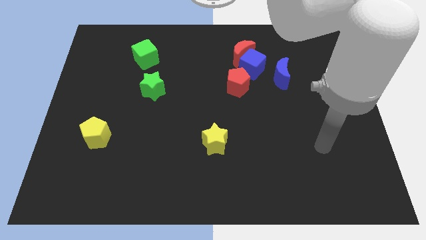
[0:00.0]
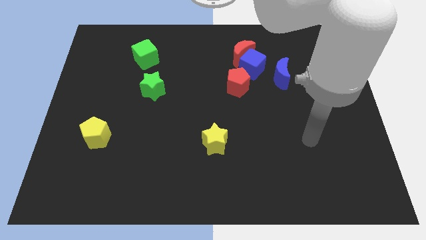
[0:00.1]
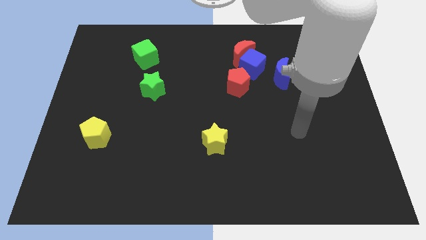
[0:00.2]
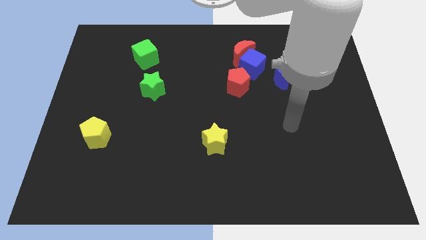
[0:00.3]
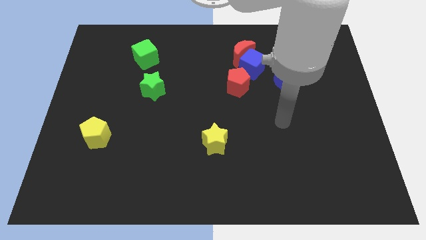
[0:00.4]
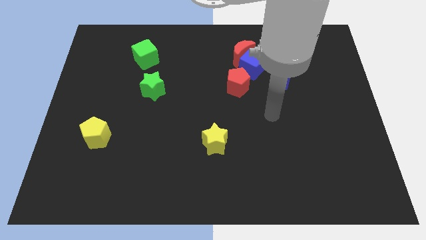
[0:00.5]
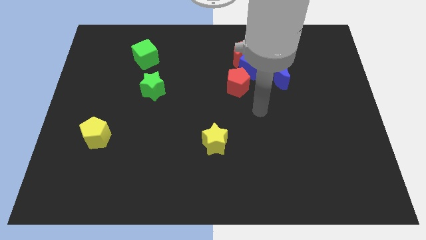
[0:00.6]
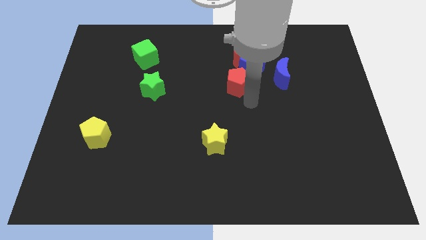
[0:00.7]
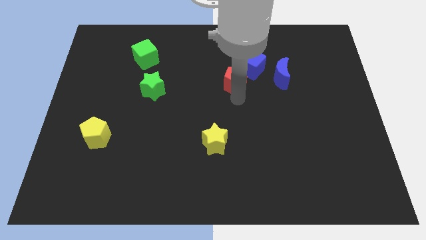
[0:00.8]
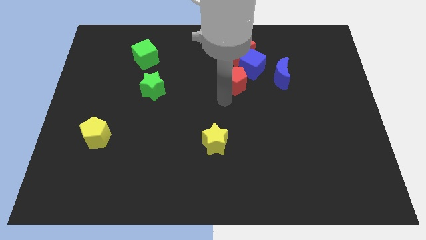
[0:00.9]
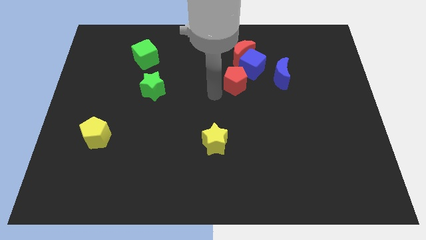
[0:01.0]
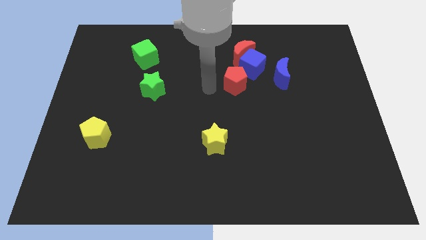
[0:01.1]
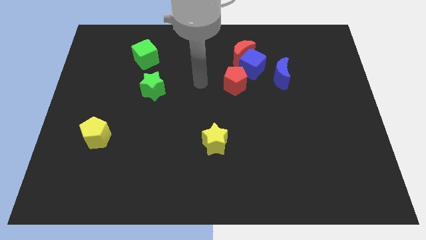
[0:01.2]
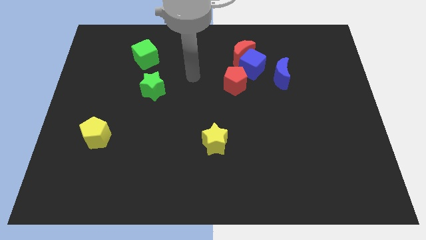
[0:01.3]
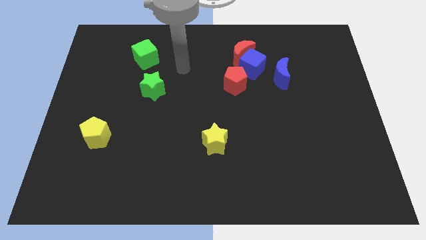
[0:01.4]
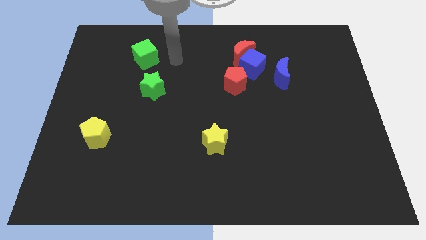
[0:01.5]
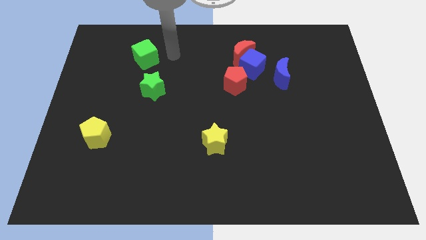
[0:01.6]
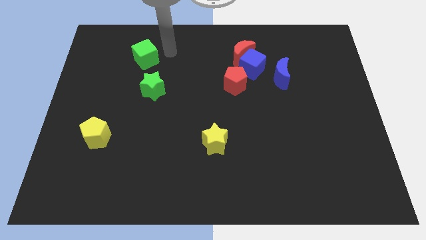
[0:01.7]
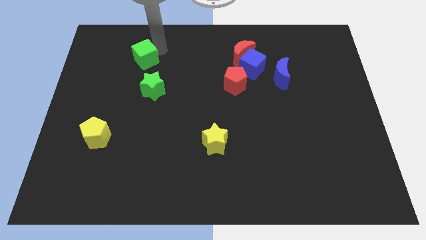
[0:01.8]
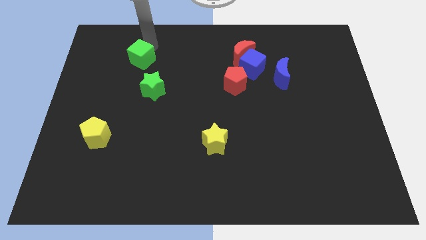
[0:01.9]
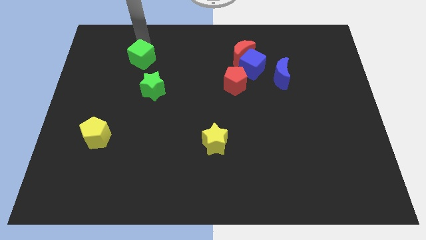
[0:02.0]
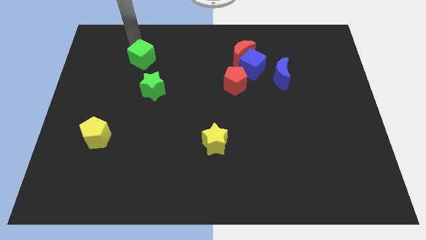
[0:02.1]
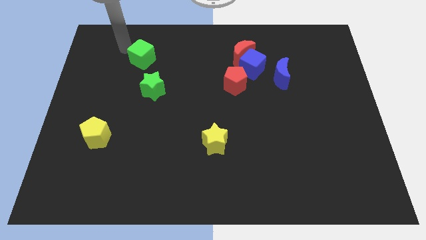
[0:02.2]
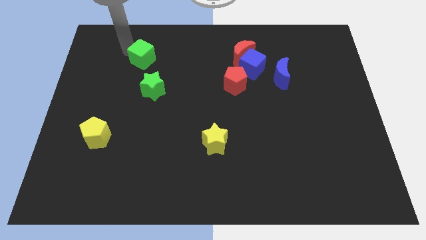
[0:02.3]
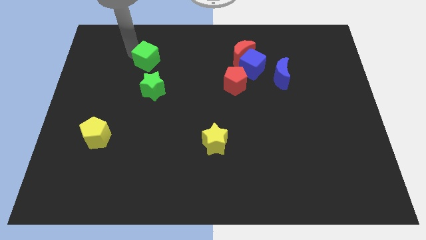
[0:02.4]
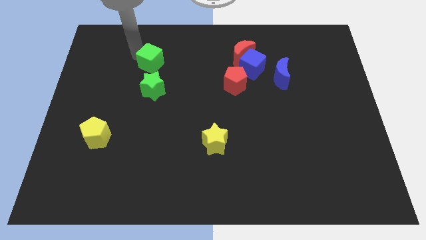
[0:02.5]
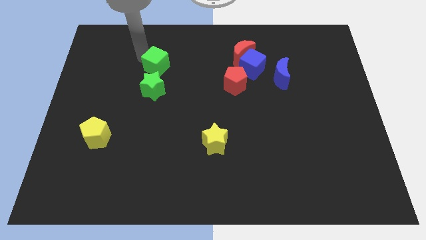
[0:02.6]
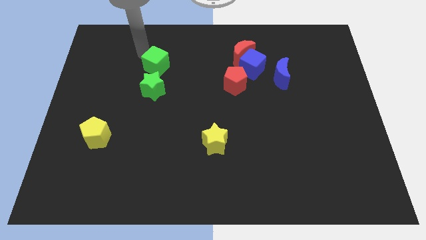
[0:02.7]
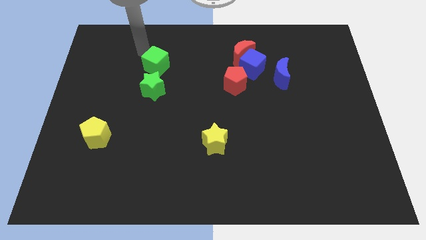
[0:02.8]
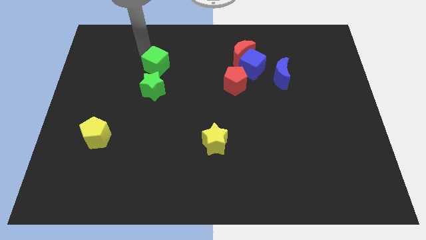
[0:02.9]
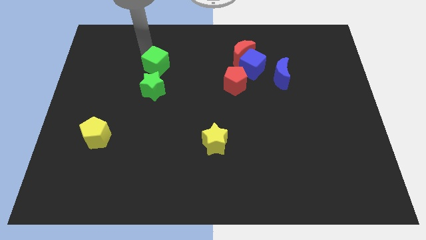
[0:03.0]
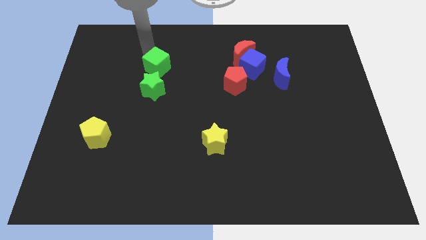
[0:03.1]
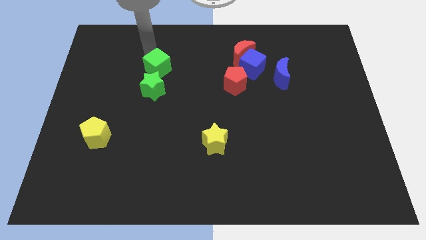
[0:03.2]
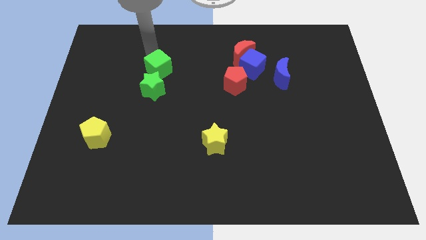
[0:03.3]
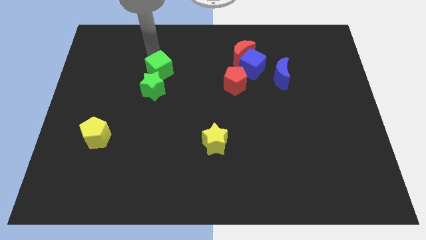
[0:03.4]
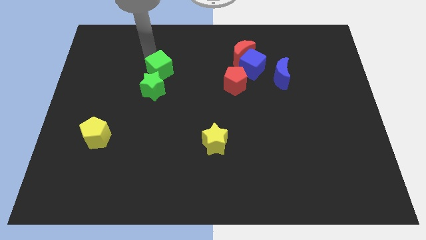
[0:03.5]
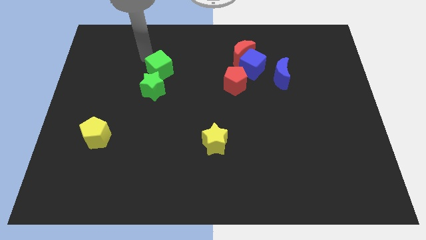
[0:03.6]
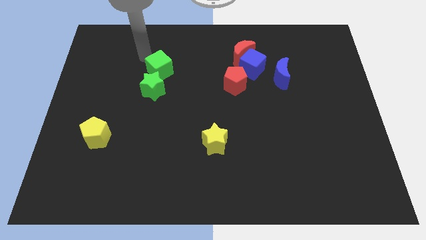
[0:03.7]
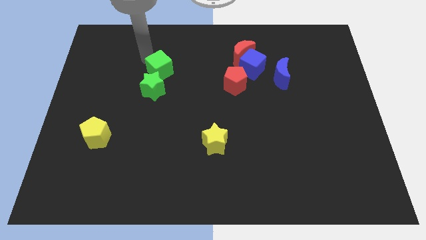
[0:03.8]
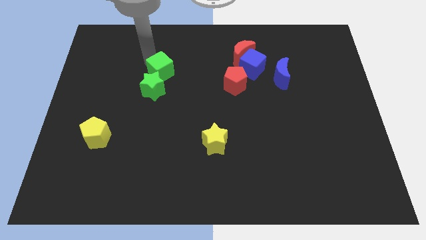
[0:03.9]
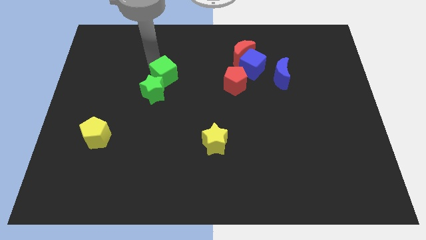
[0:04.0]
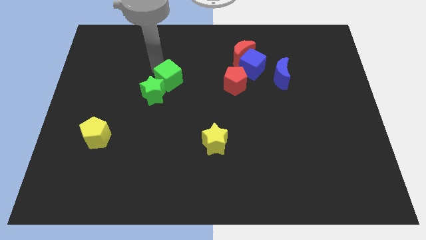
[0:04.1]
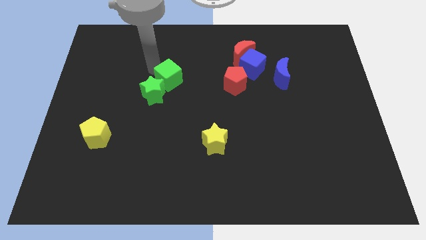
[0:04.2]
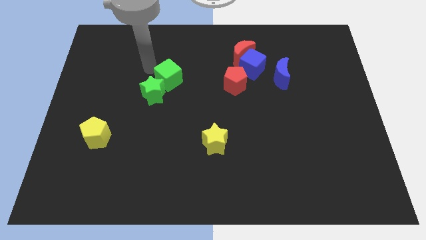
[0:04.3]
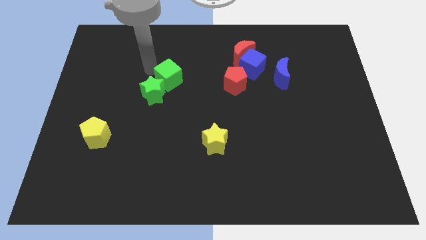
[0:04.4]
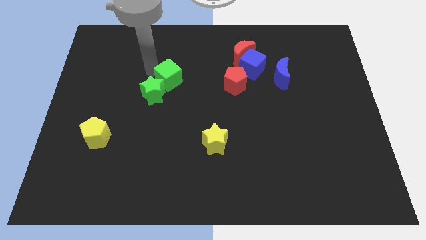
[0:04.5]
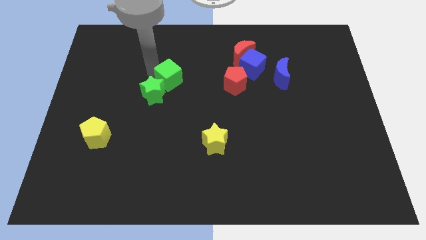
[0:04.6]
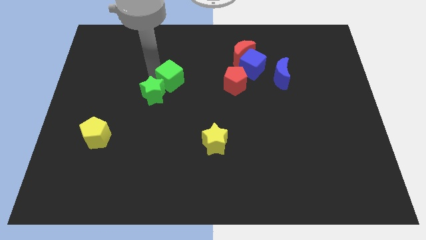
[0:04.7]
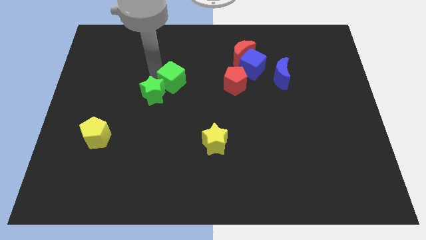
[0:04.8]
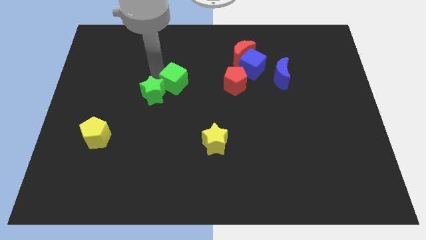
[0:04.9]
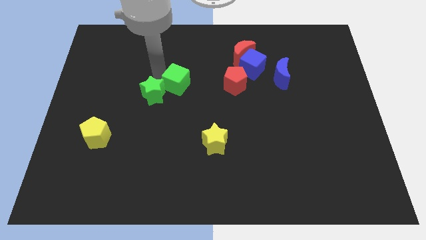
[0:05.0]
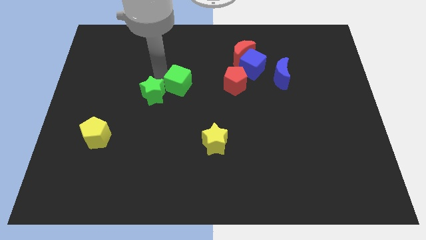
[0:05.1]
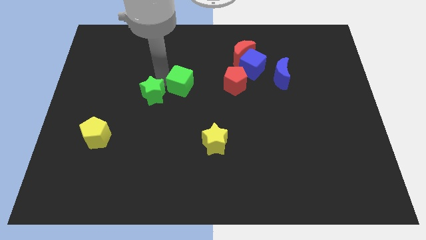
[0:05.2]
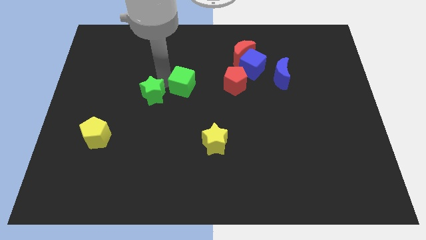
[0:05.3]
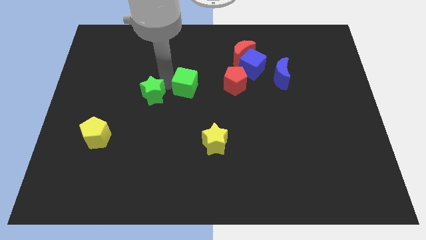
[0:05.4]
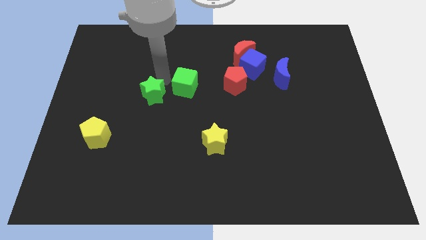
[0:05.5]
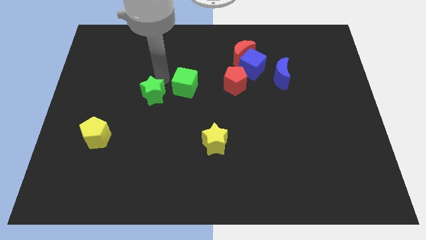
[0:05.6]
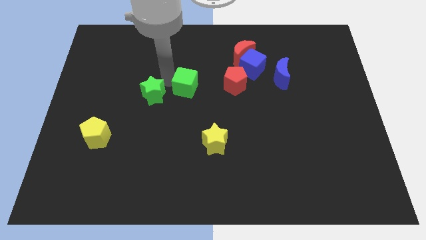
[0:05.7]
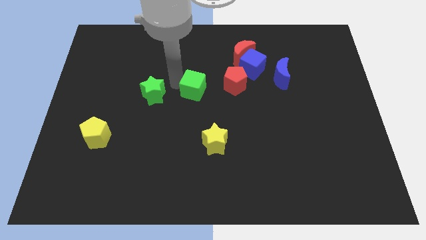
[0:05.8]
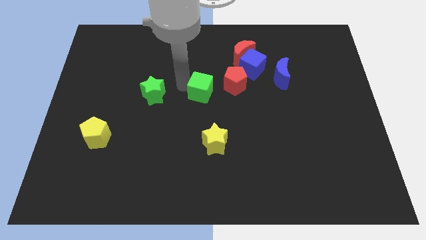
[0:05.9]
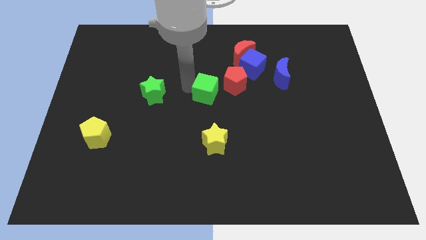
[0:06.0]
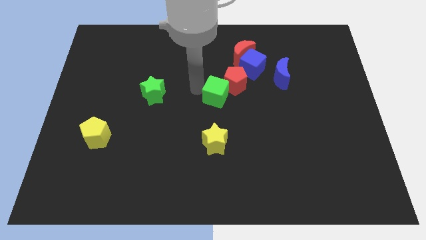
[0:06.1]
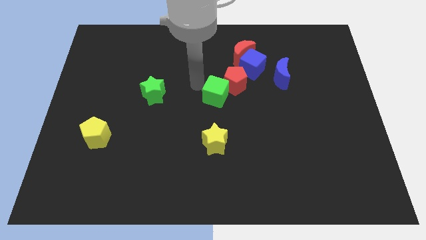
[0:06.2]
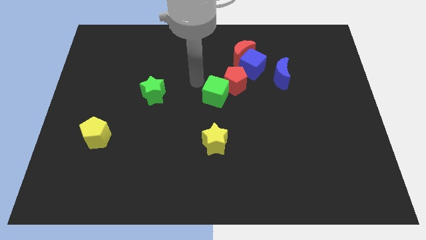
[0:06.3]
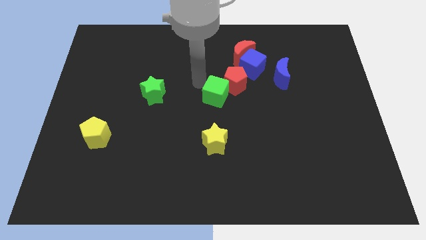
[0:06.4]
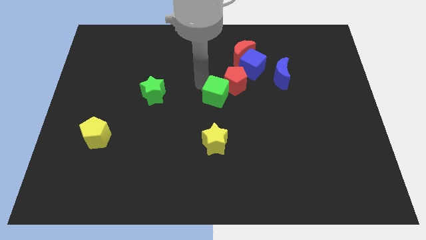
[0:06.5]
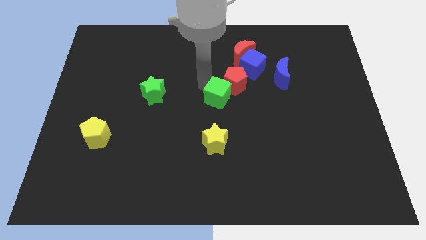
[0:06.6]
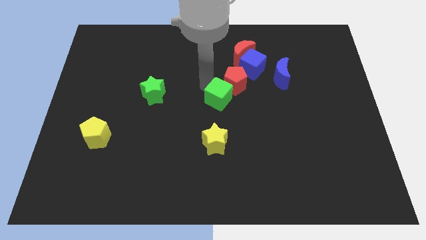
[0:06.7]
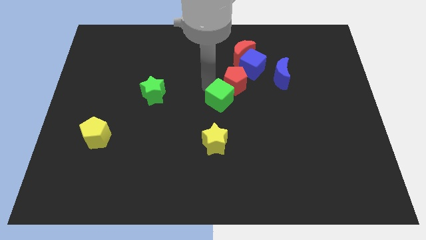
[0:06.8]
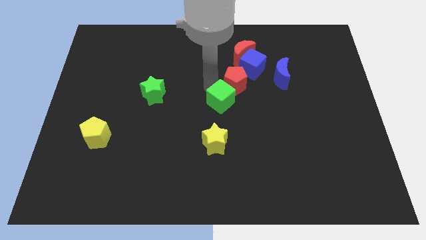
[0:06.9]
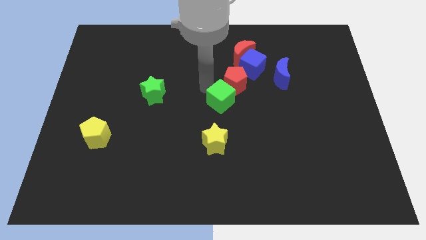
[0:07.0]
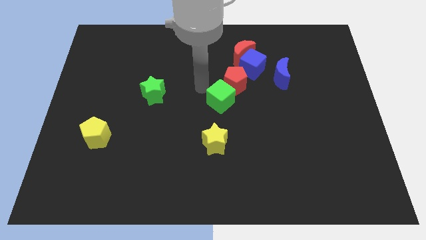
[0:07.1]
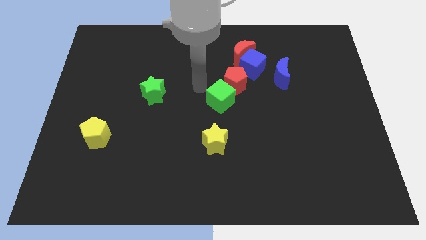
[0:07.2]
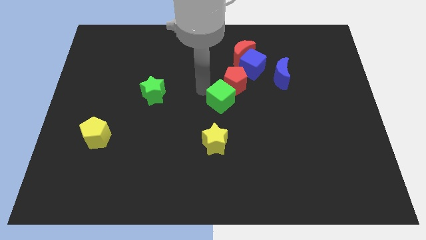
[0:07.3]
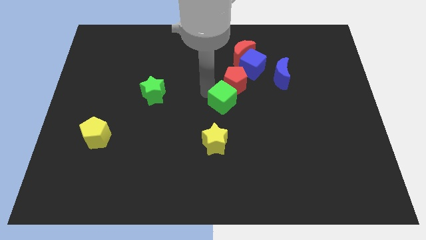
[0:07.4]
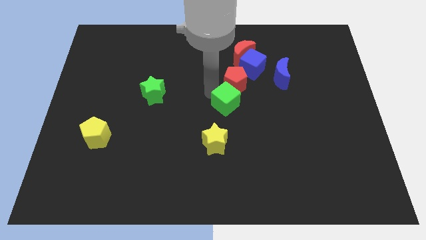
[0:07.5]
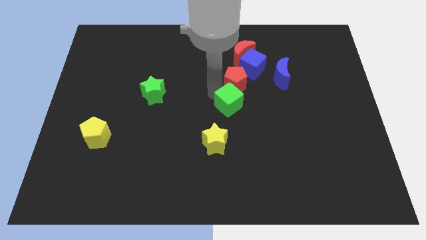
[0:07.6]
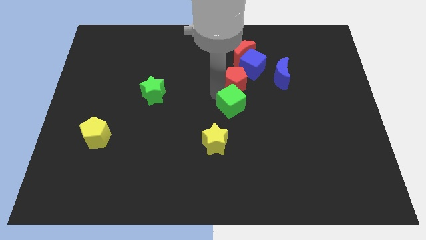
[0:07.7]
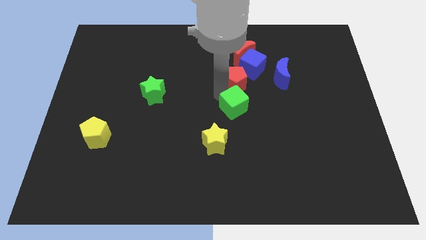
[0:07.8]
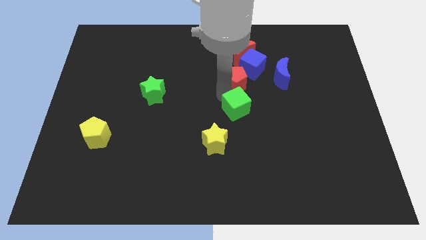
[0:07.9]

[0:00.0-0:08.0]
slide the green cube to the bottom side of the blue cube
